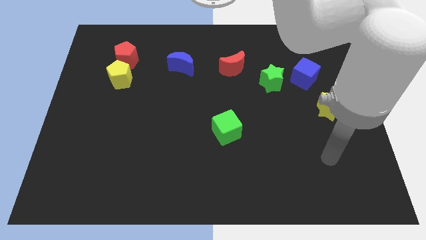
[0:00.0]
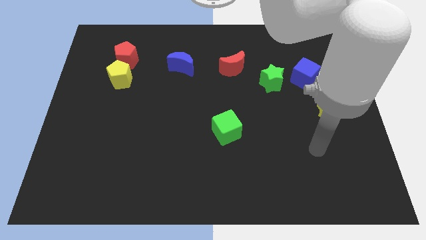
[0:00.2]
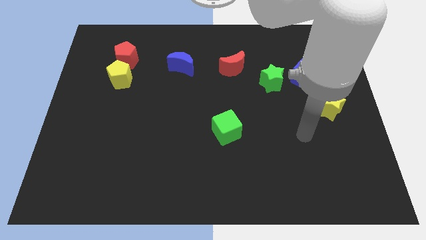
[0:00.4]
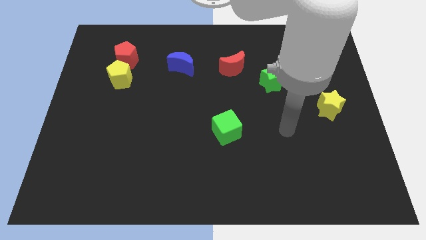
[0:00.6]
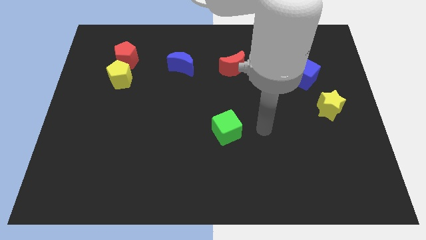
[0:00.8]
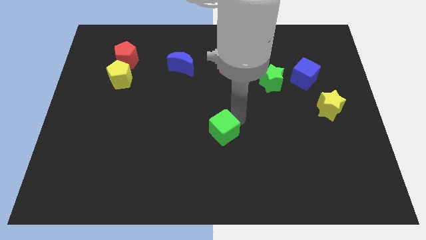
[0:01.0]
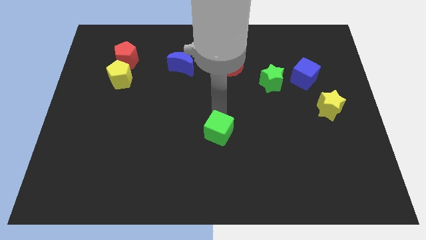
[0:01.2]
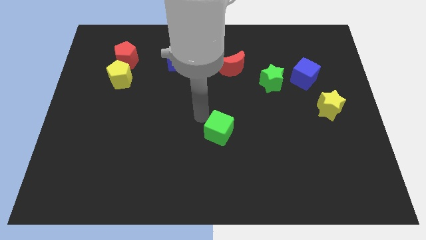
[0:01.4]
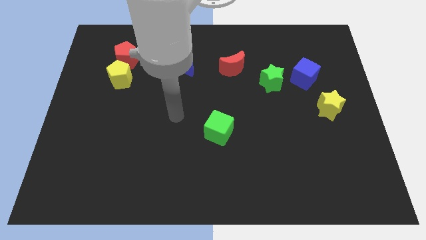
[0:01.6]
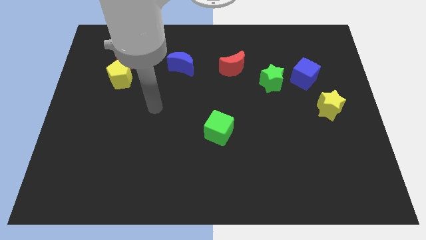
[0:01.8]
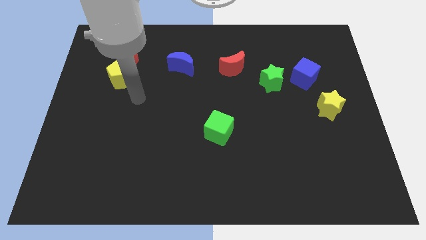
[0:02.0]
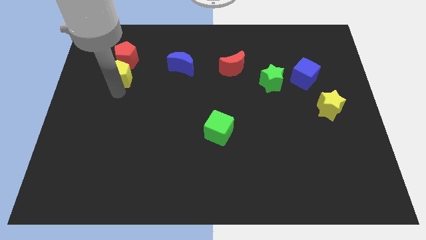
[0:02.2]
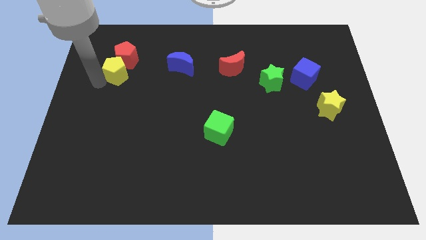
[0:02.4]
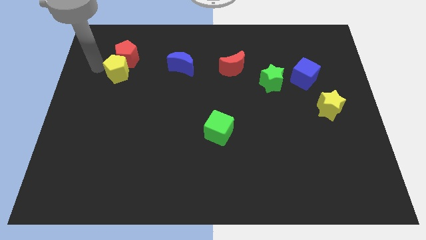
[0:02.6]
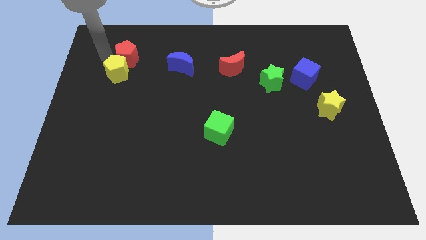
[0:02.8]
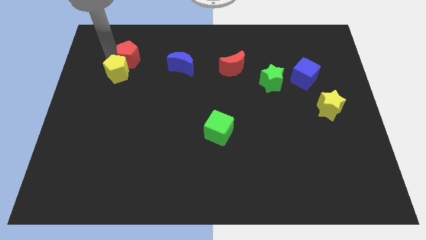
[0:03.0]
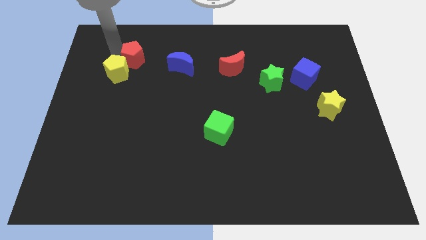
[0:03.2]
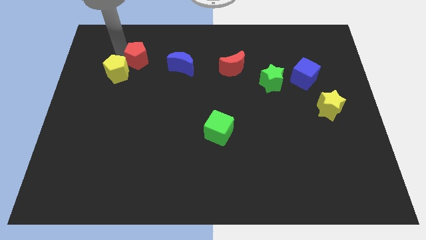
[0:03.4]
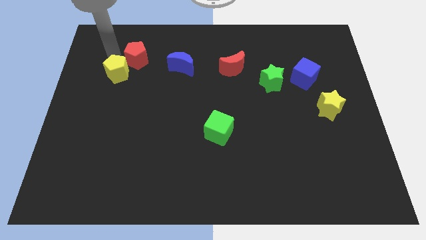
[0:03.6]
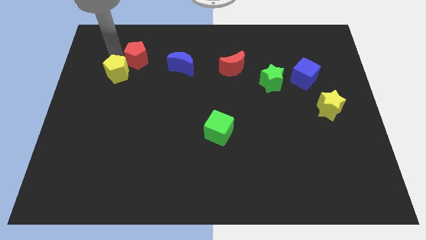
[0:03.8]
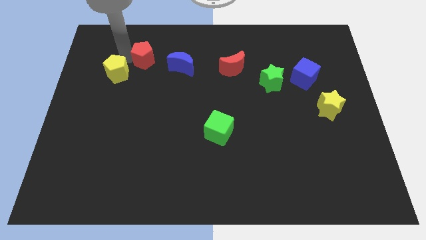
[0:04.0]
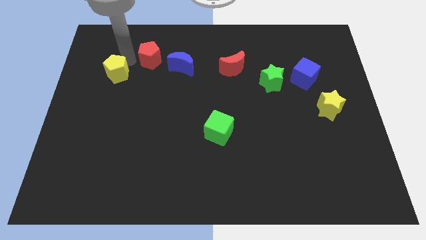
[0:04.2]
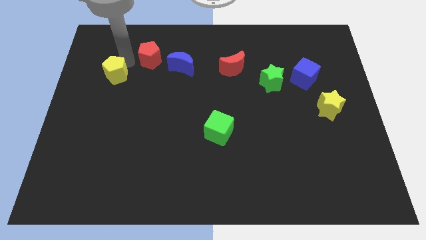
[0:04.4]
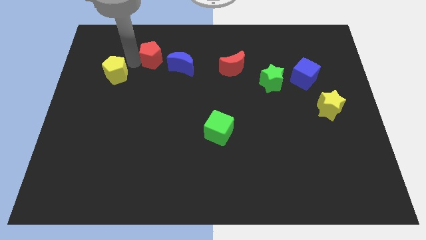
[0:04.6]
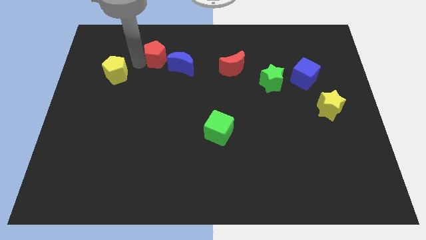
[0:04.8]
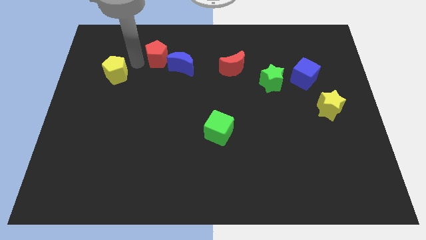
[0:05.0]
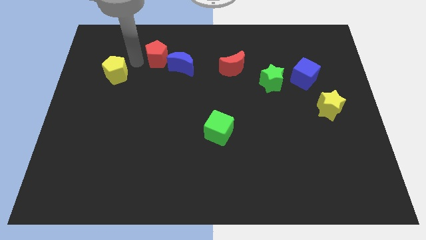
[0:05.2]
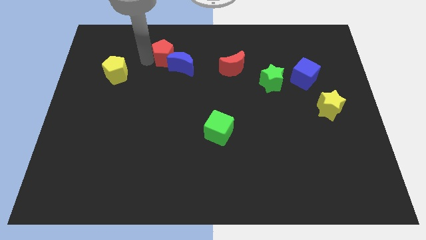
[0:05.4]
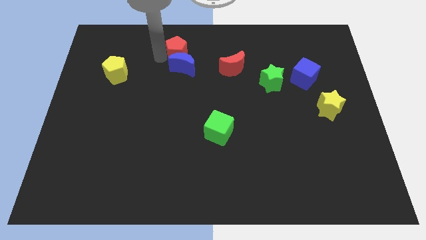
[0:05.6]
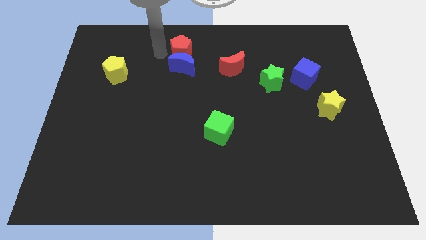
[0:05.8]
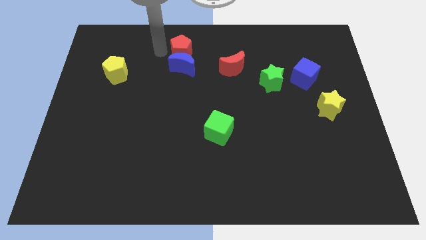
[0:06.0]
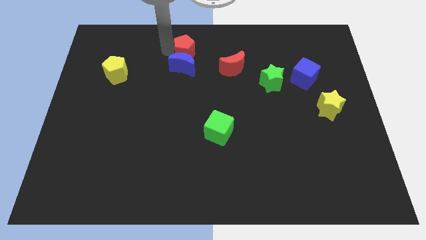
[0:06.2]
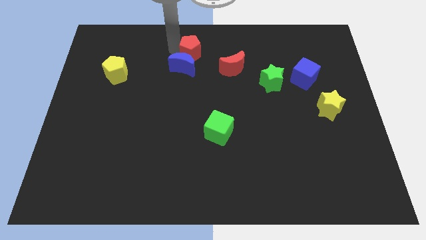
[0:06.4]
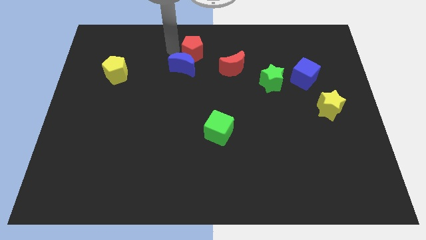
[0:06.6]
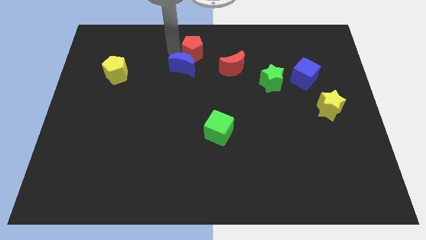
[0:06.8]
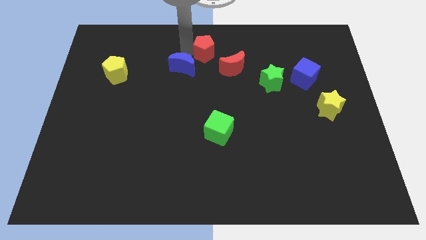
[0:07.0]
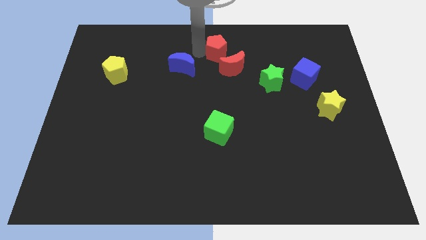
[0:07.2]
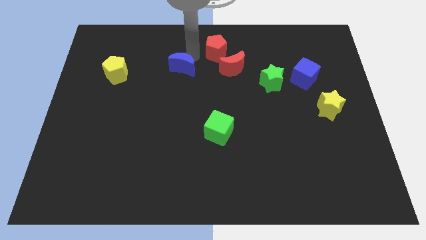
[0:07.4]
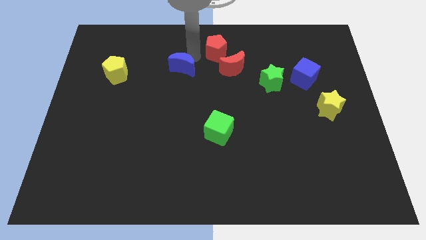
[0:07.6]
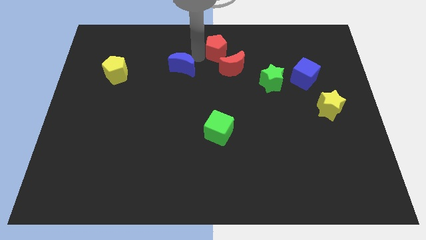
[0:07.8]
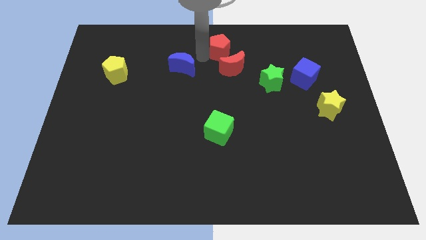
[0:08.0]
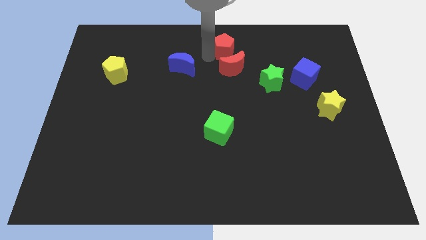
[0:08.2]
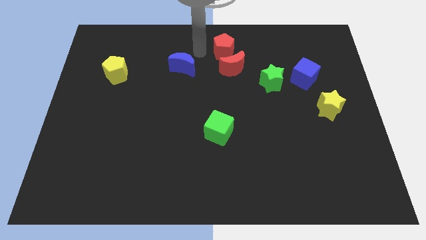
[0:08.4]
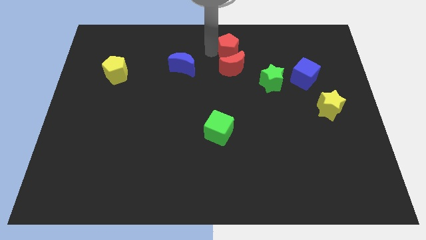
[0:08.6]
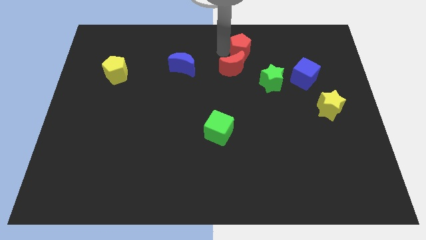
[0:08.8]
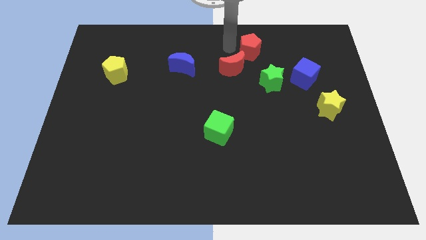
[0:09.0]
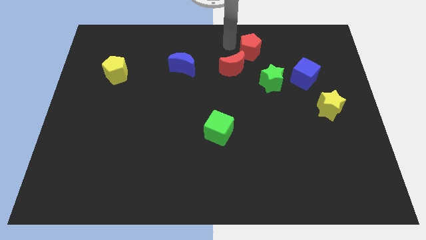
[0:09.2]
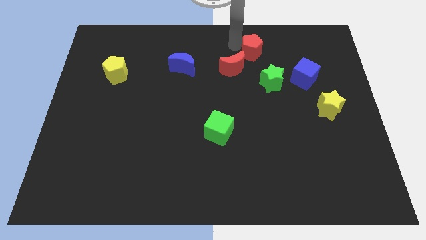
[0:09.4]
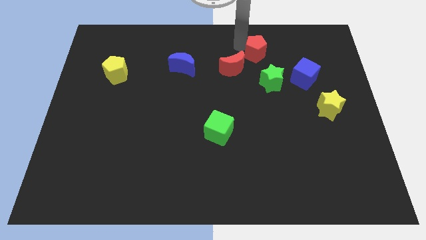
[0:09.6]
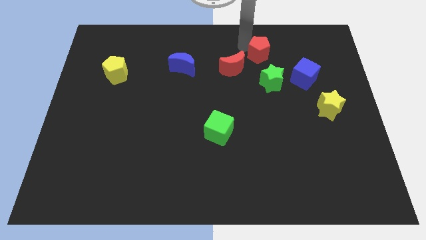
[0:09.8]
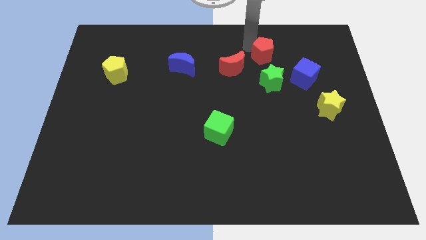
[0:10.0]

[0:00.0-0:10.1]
push the red pentagon to the top left side of the blue cube

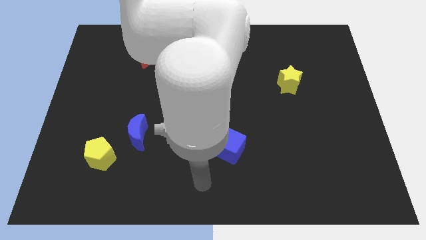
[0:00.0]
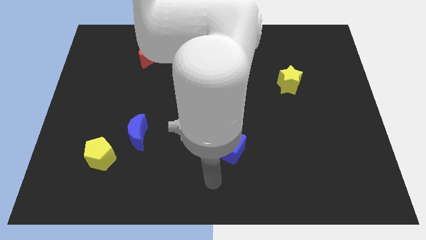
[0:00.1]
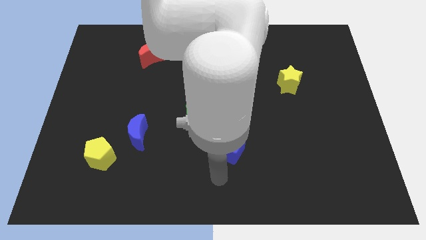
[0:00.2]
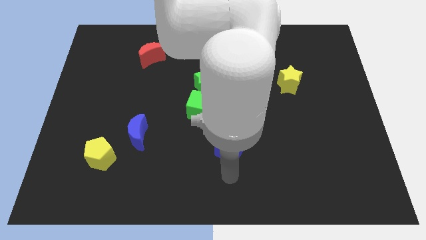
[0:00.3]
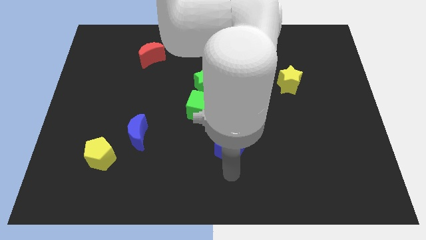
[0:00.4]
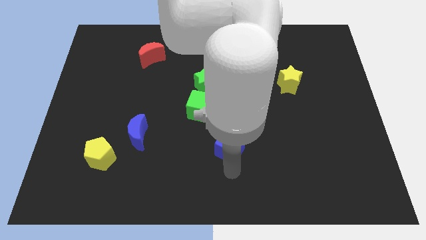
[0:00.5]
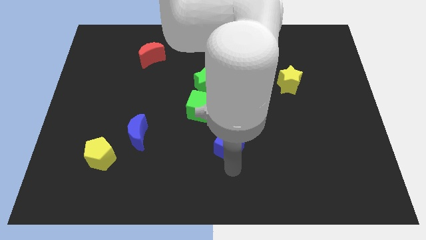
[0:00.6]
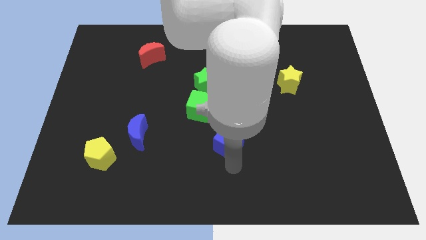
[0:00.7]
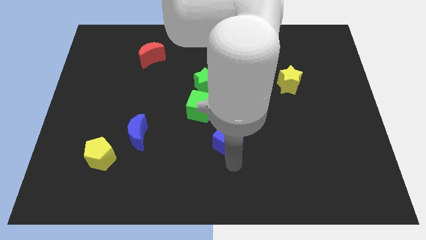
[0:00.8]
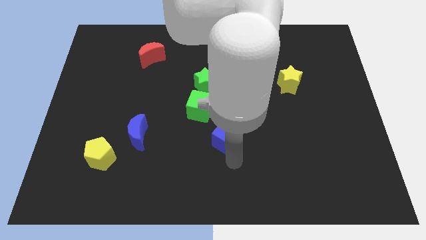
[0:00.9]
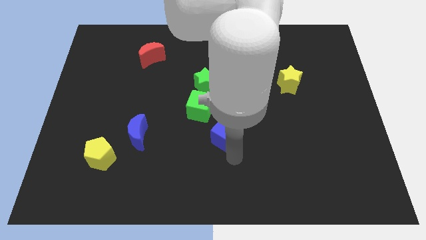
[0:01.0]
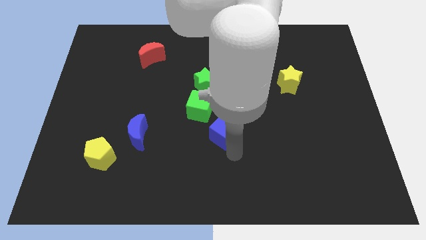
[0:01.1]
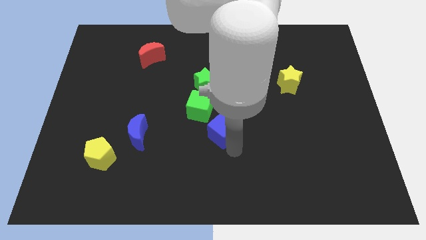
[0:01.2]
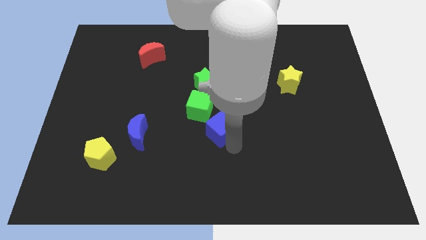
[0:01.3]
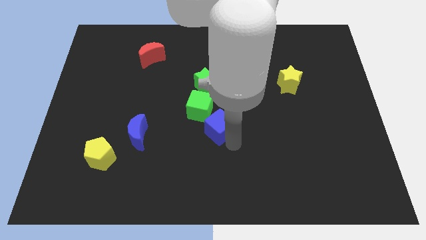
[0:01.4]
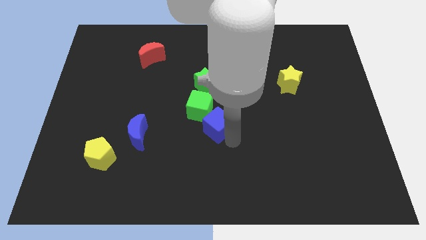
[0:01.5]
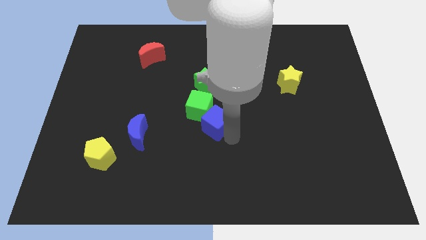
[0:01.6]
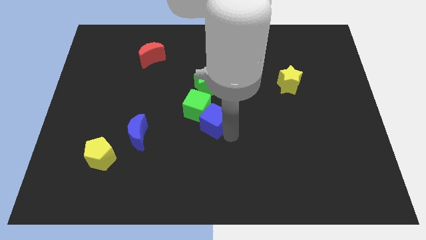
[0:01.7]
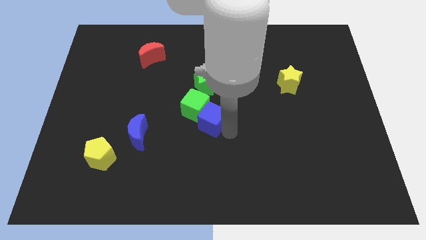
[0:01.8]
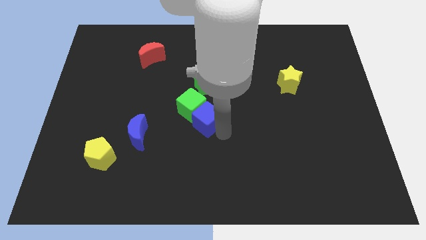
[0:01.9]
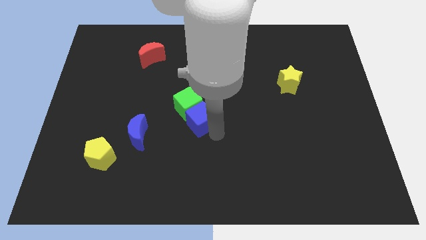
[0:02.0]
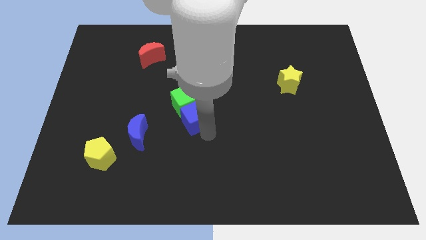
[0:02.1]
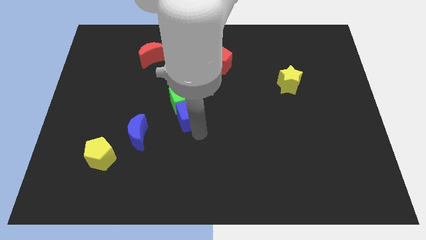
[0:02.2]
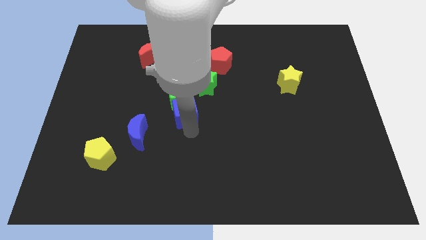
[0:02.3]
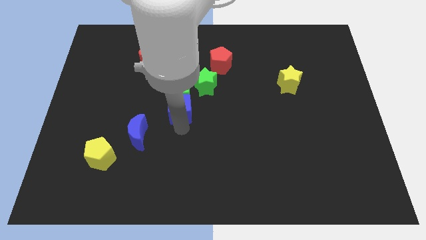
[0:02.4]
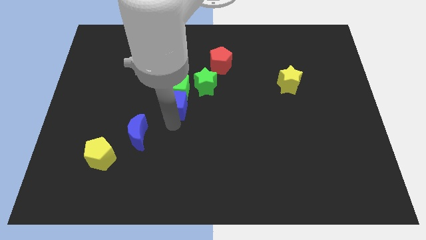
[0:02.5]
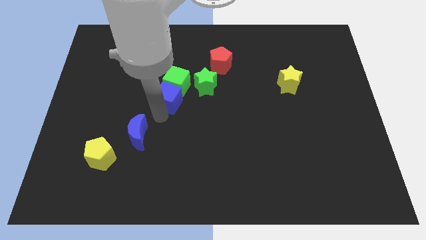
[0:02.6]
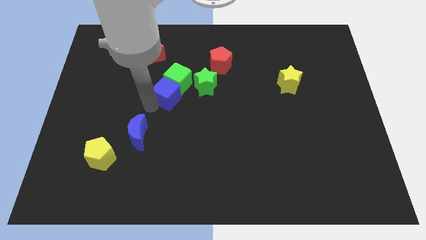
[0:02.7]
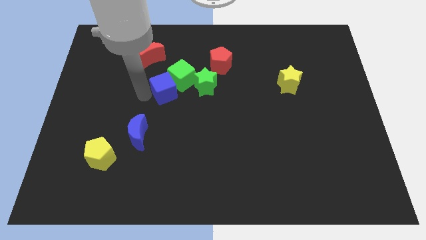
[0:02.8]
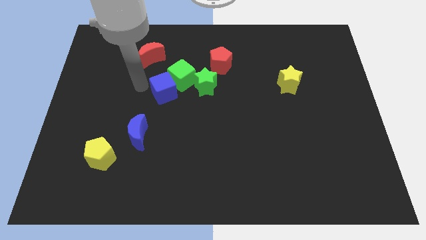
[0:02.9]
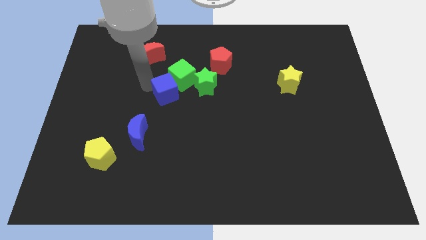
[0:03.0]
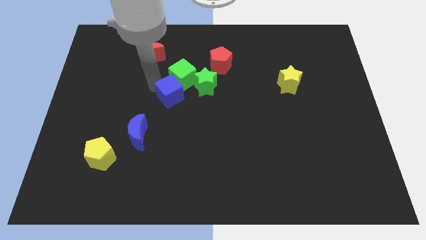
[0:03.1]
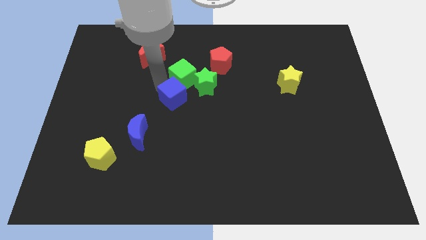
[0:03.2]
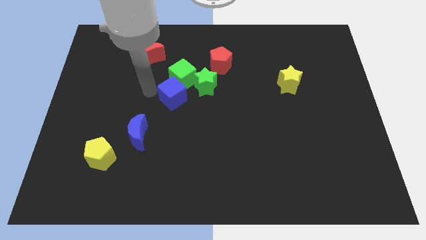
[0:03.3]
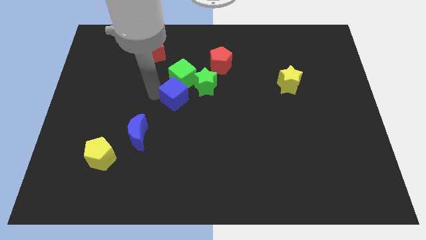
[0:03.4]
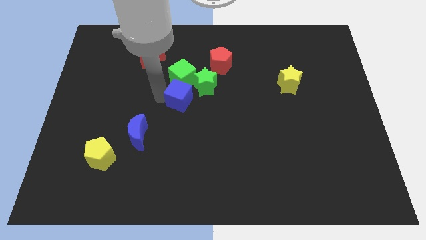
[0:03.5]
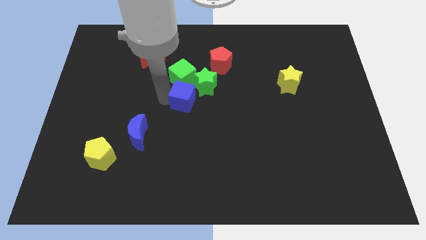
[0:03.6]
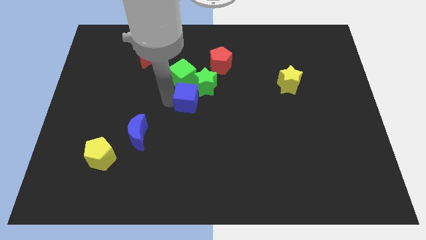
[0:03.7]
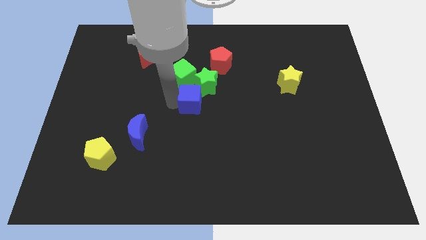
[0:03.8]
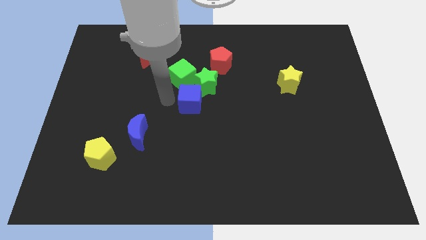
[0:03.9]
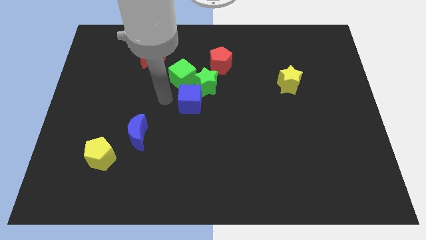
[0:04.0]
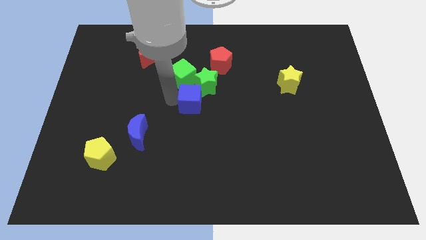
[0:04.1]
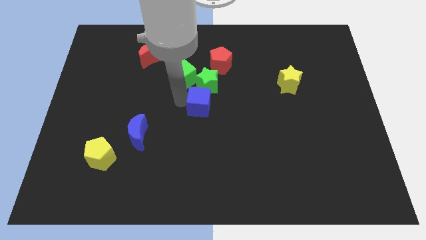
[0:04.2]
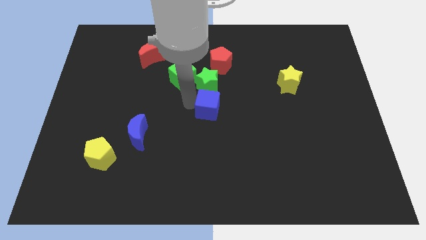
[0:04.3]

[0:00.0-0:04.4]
put the blue cube to the bottom side of the red pentagon
